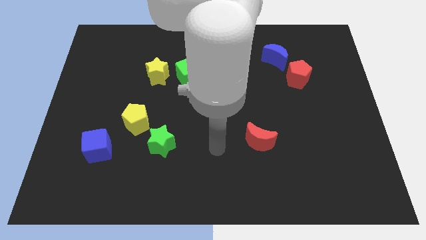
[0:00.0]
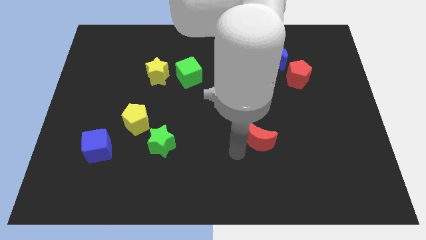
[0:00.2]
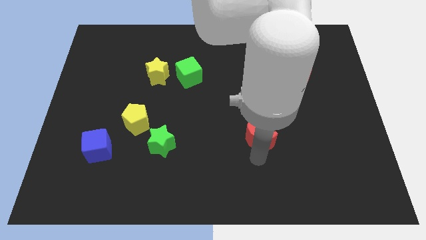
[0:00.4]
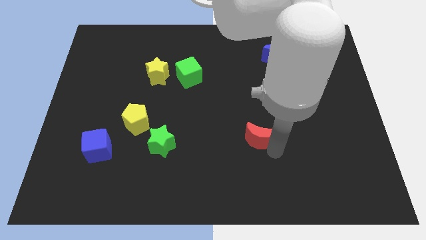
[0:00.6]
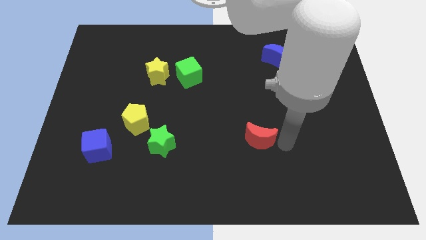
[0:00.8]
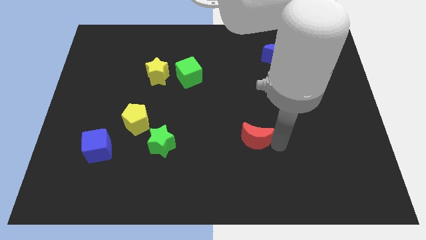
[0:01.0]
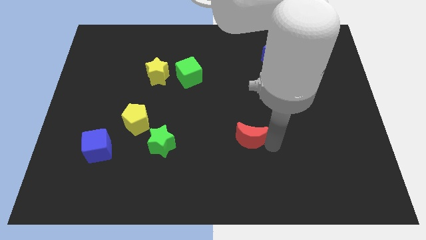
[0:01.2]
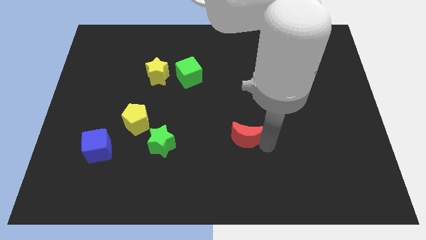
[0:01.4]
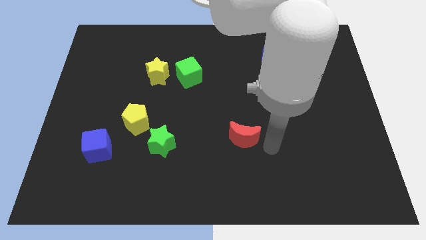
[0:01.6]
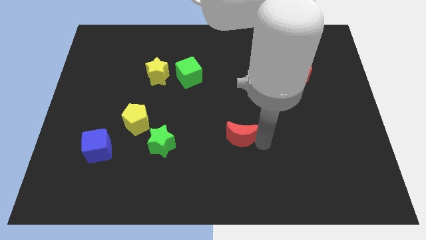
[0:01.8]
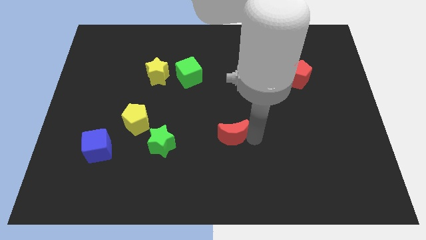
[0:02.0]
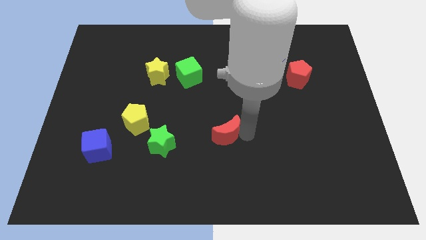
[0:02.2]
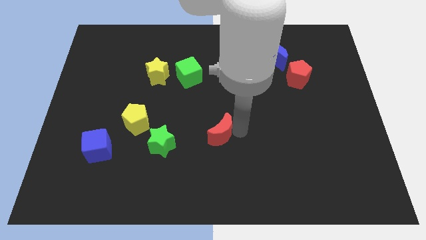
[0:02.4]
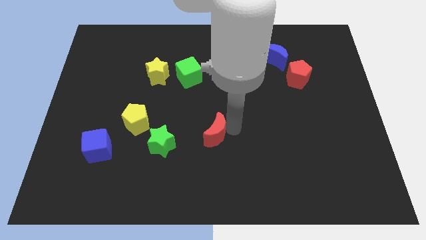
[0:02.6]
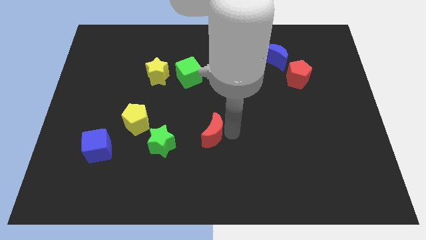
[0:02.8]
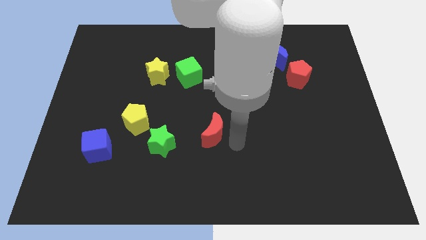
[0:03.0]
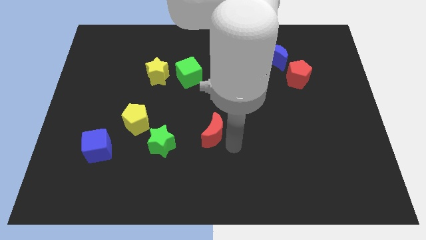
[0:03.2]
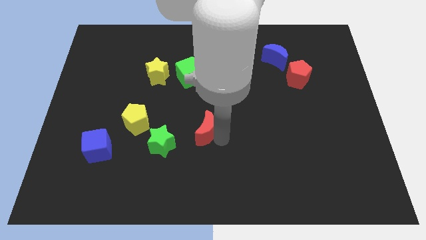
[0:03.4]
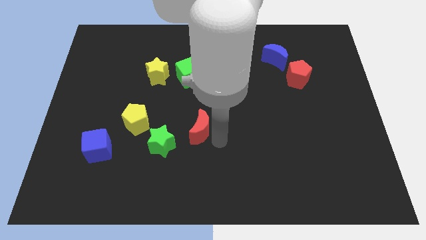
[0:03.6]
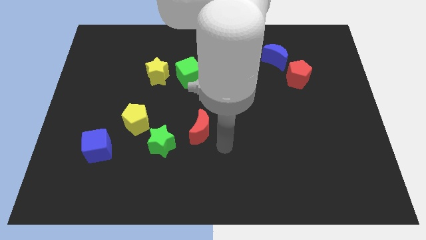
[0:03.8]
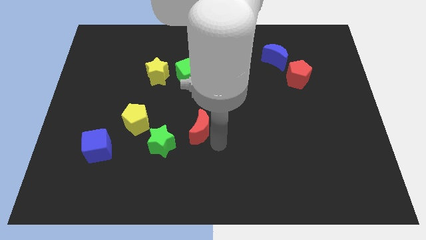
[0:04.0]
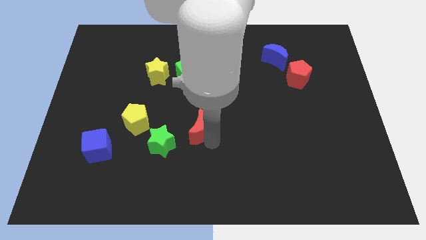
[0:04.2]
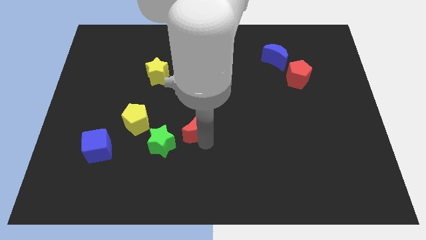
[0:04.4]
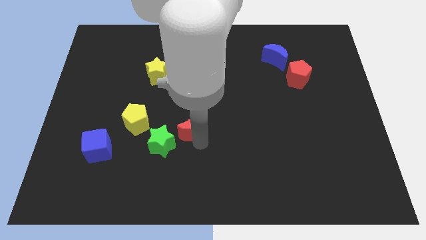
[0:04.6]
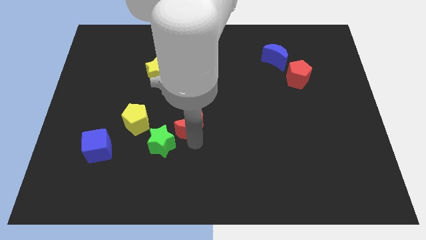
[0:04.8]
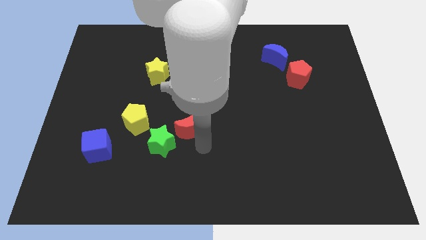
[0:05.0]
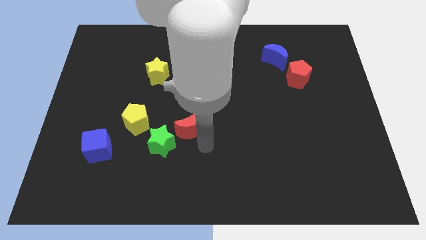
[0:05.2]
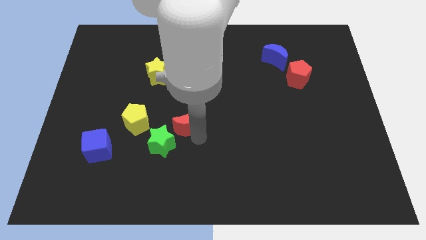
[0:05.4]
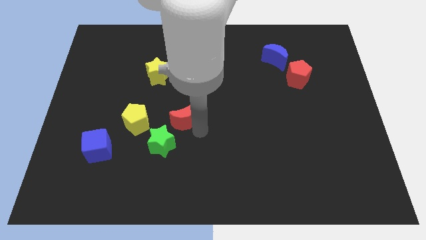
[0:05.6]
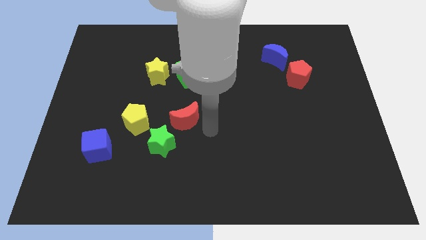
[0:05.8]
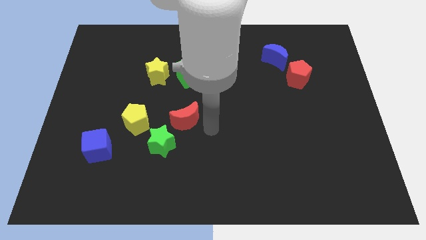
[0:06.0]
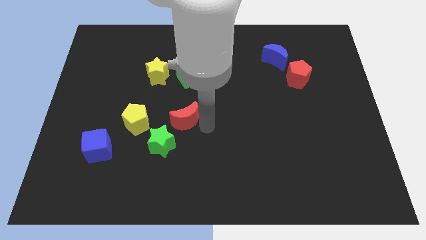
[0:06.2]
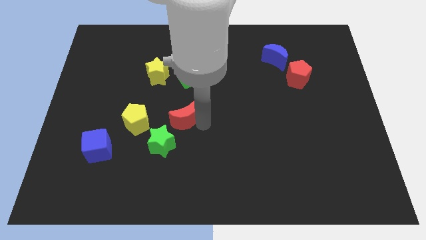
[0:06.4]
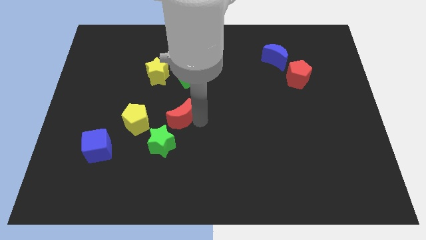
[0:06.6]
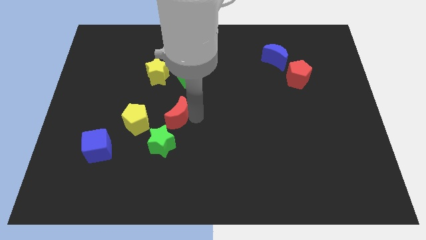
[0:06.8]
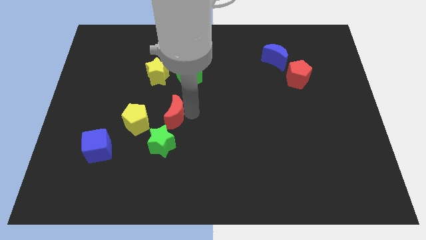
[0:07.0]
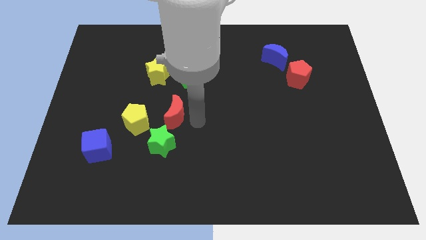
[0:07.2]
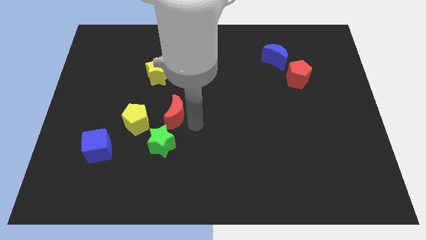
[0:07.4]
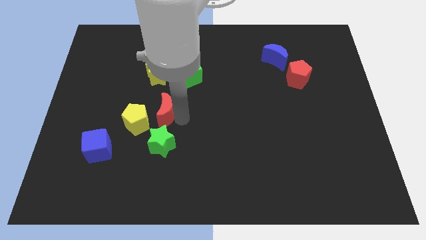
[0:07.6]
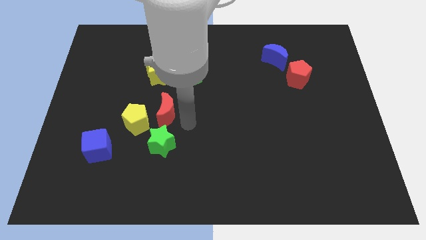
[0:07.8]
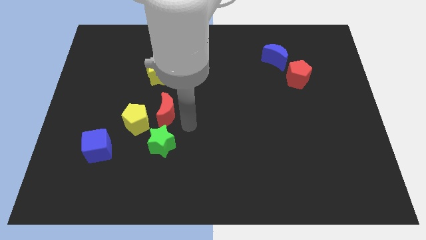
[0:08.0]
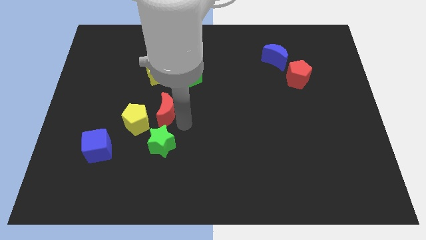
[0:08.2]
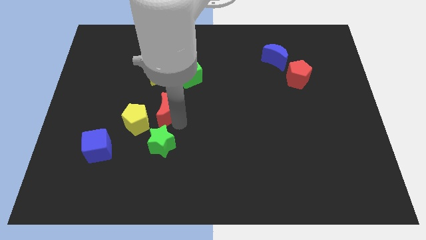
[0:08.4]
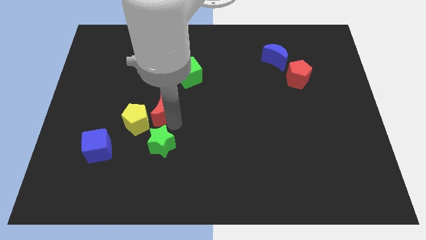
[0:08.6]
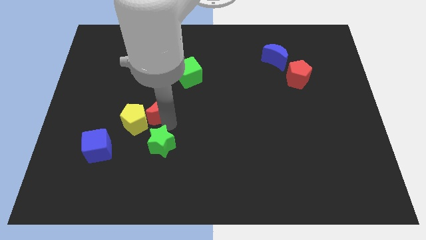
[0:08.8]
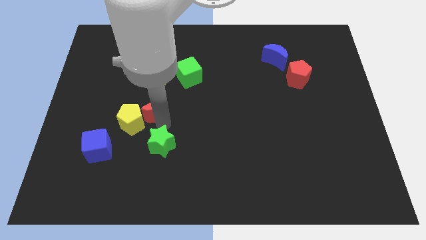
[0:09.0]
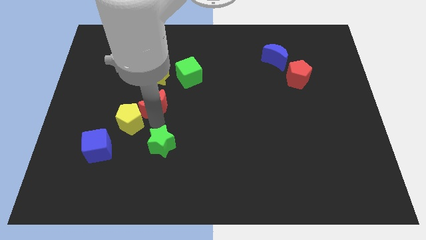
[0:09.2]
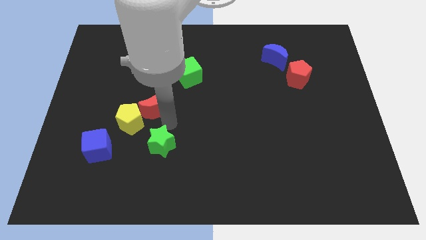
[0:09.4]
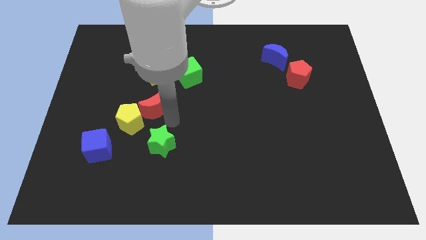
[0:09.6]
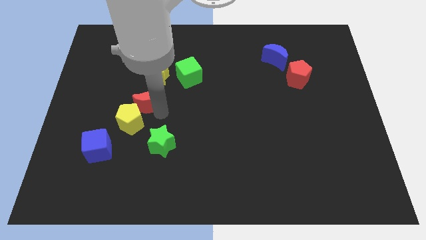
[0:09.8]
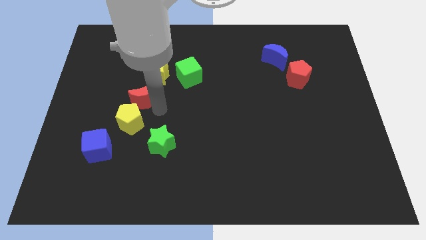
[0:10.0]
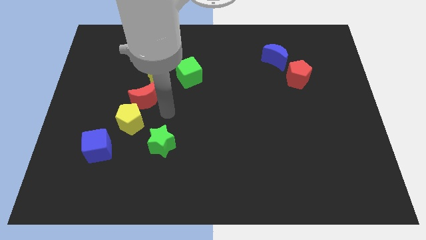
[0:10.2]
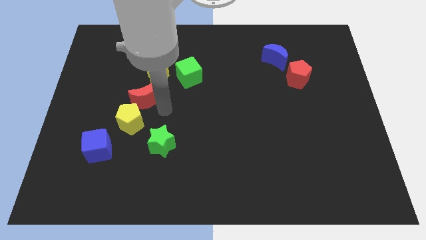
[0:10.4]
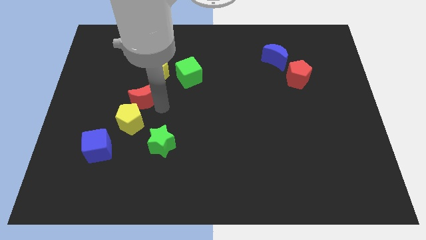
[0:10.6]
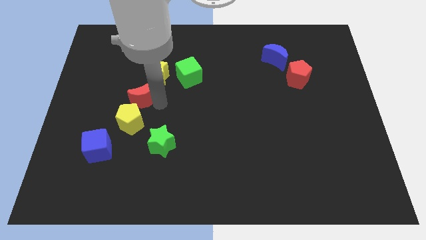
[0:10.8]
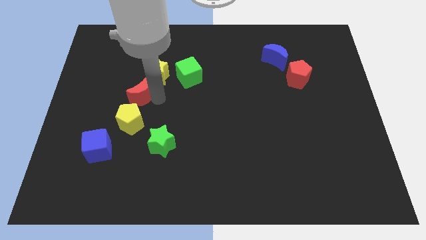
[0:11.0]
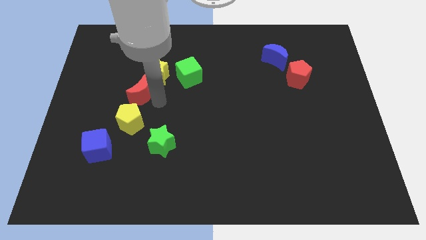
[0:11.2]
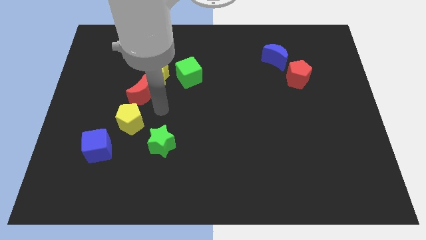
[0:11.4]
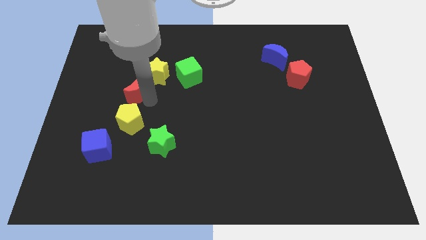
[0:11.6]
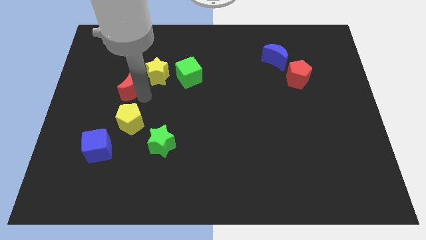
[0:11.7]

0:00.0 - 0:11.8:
move the red moon to the left side of the yellow star

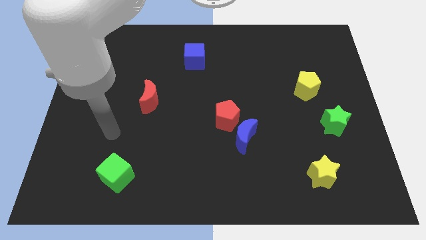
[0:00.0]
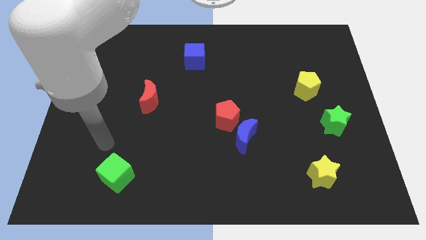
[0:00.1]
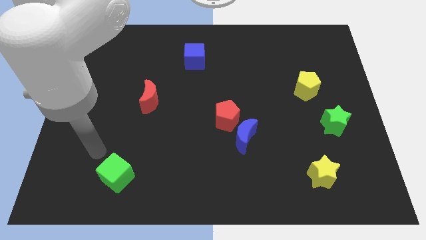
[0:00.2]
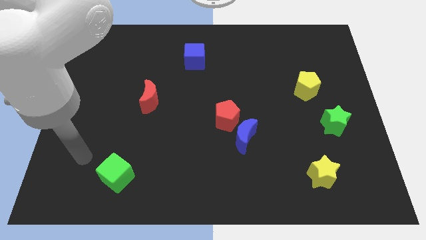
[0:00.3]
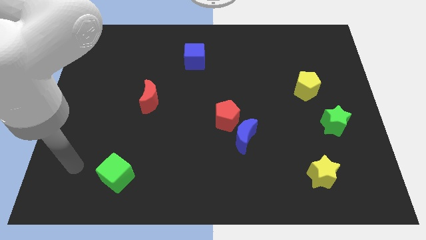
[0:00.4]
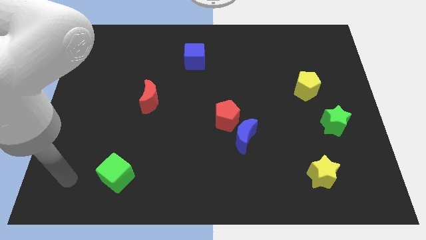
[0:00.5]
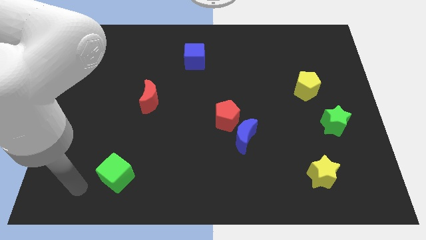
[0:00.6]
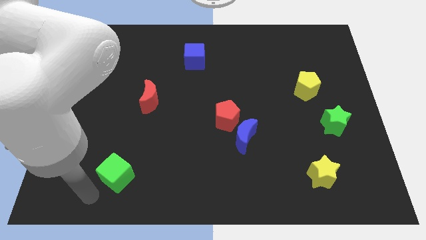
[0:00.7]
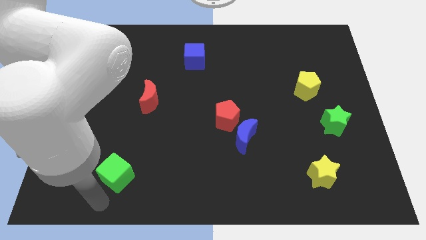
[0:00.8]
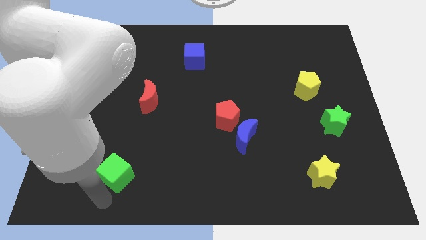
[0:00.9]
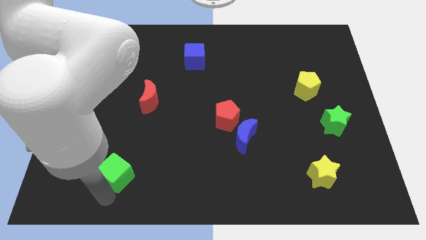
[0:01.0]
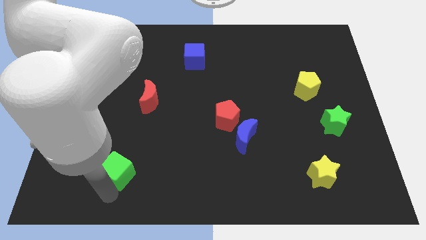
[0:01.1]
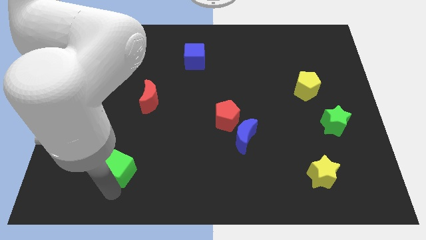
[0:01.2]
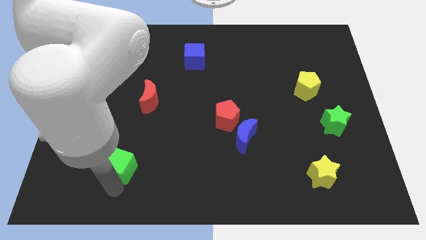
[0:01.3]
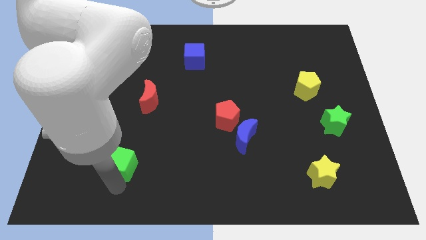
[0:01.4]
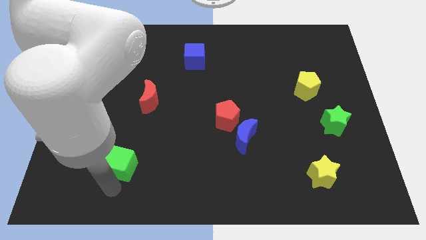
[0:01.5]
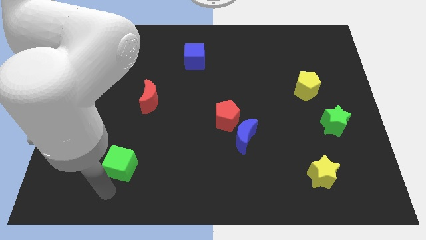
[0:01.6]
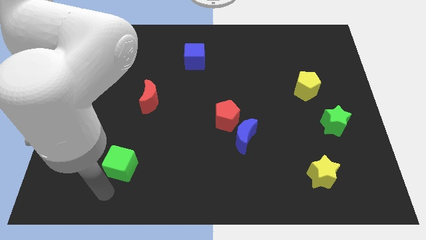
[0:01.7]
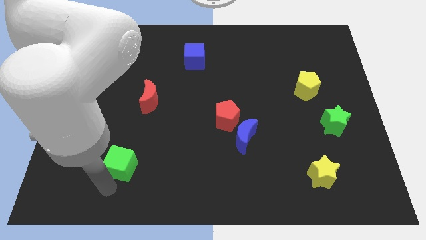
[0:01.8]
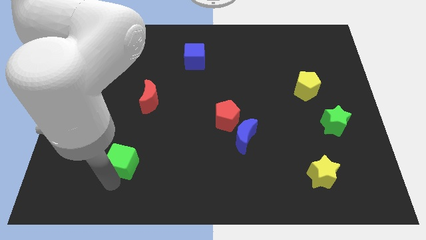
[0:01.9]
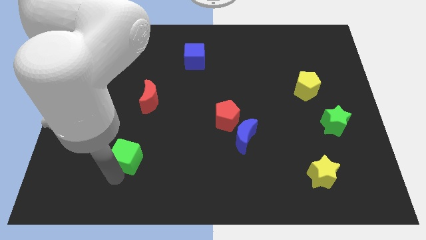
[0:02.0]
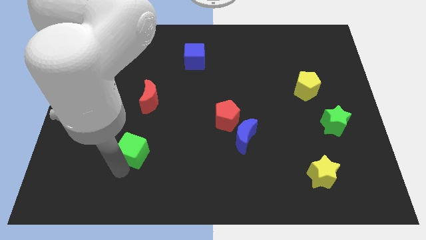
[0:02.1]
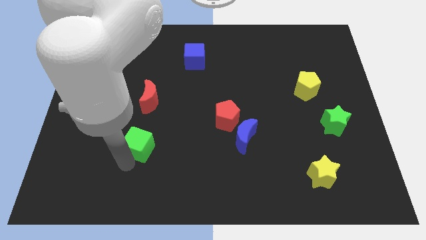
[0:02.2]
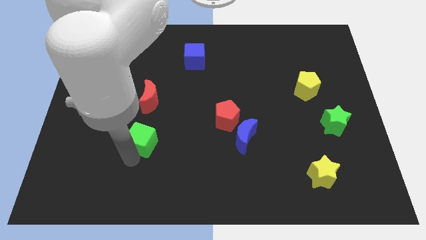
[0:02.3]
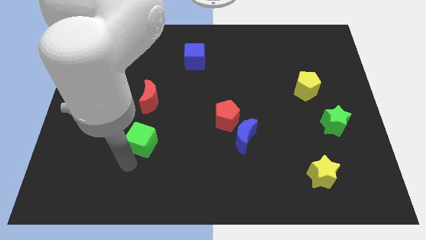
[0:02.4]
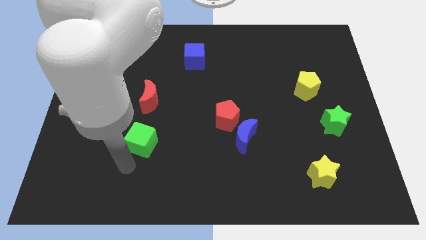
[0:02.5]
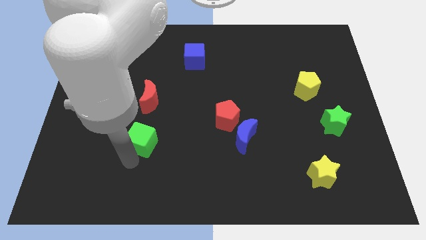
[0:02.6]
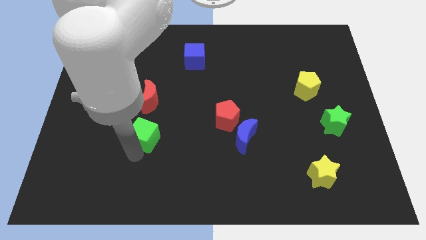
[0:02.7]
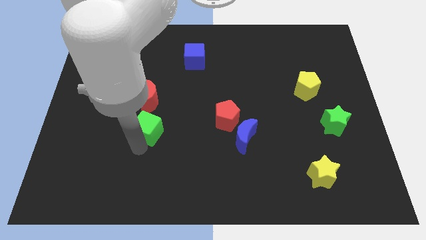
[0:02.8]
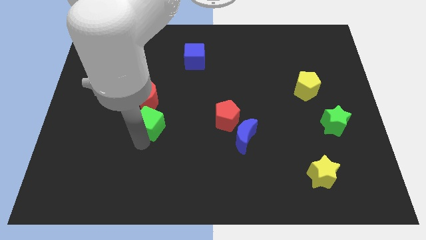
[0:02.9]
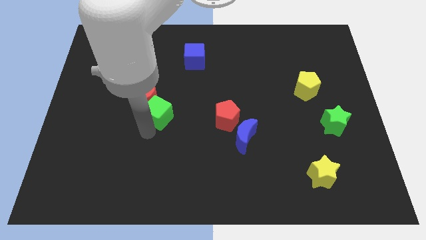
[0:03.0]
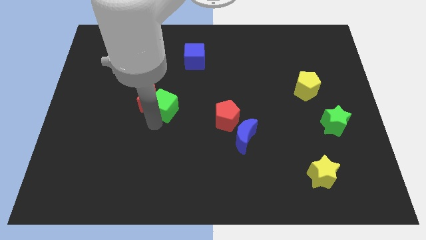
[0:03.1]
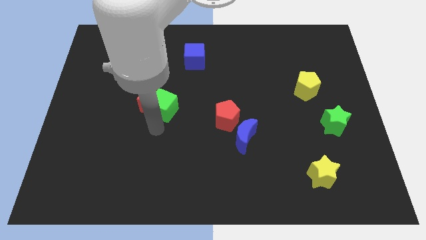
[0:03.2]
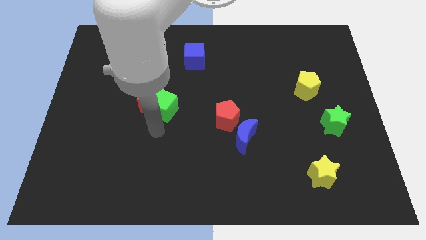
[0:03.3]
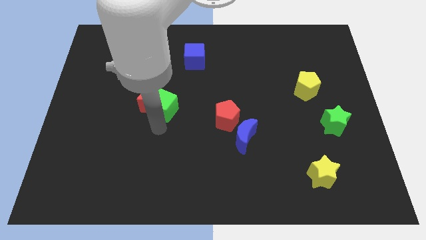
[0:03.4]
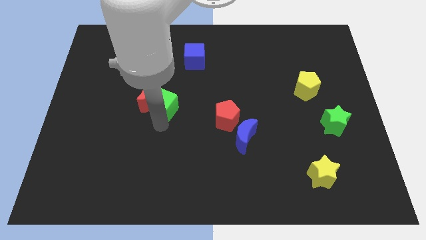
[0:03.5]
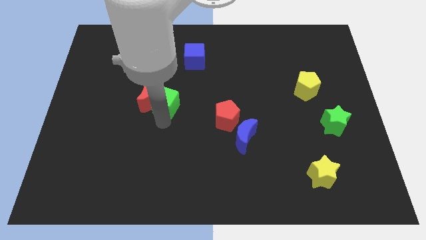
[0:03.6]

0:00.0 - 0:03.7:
push the green cube to the top right side of the red moon
